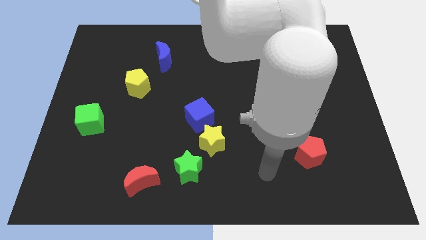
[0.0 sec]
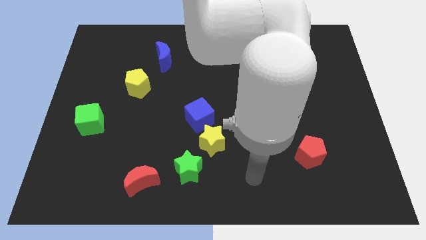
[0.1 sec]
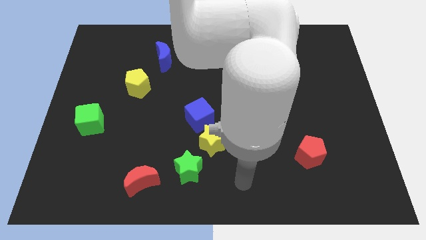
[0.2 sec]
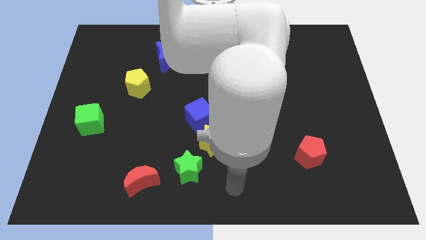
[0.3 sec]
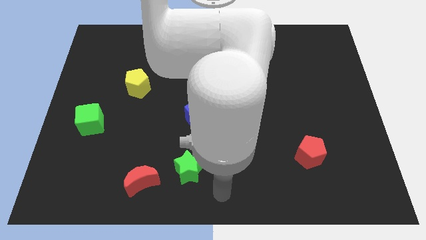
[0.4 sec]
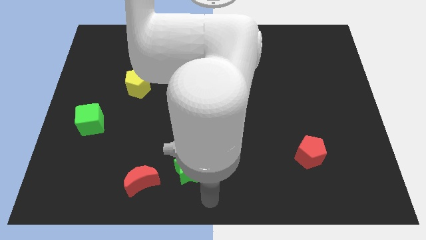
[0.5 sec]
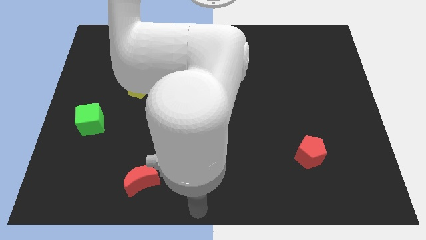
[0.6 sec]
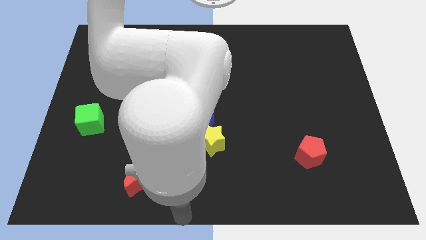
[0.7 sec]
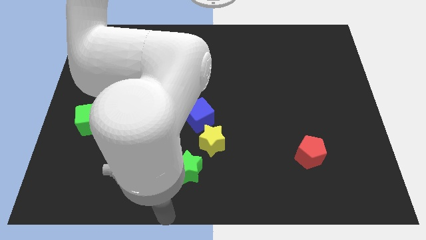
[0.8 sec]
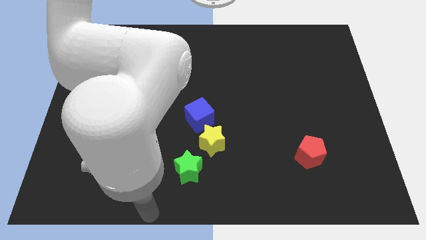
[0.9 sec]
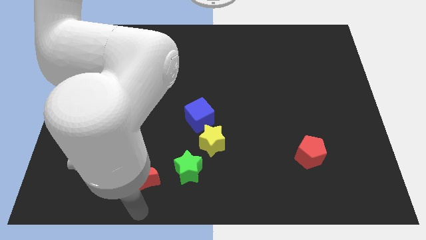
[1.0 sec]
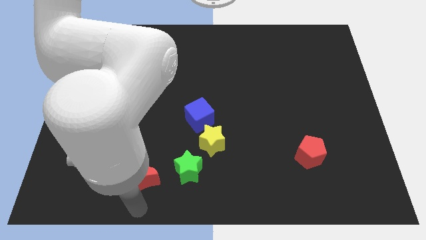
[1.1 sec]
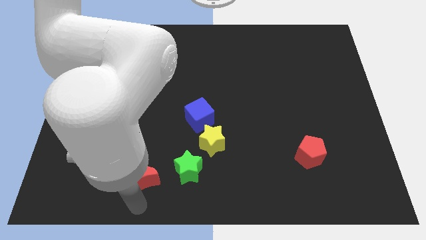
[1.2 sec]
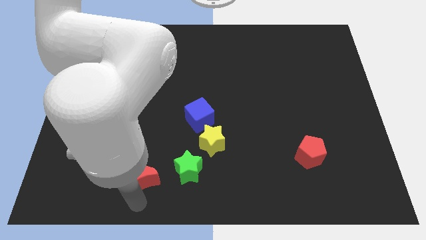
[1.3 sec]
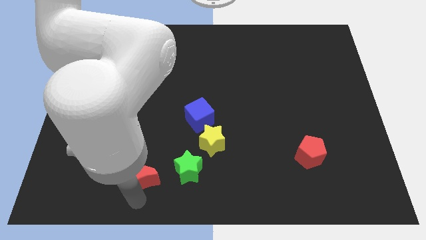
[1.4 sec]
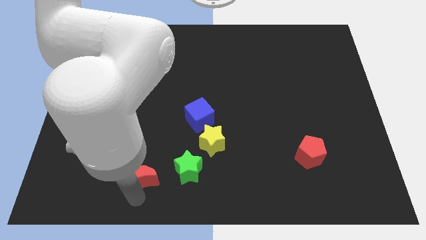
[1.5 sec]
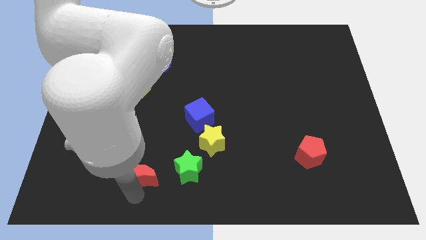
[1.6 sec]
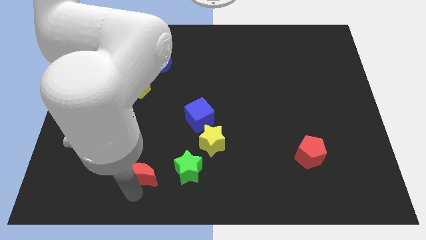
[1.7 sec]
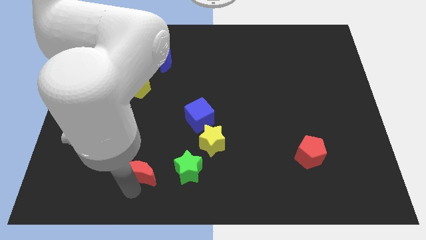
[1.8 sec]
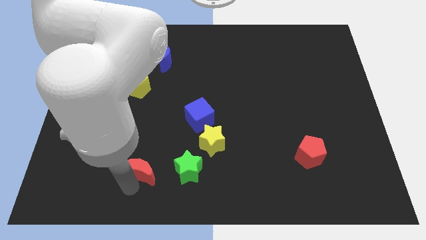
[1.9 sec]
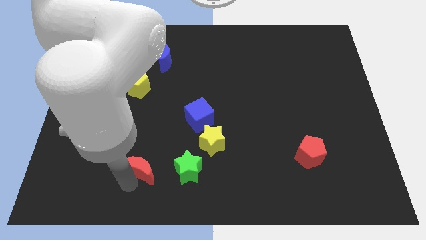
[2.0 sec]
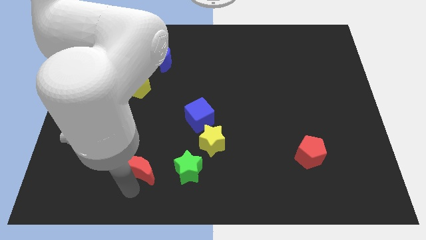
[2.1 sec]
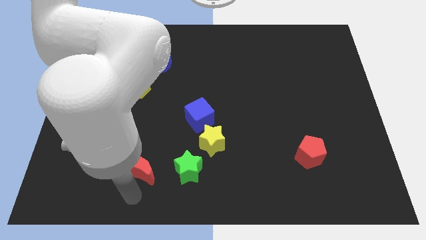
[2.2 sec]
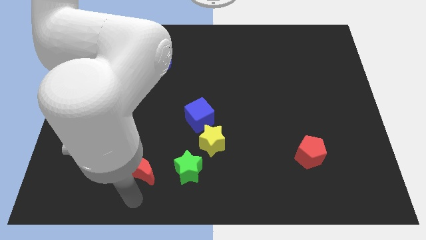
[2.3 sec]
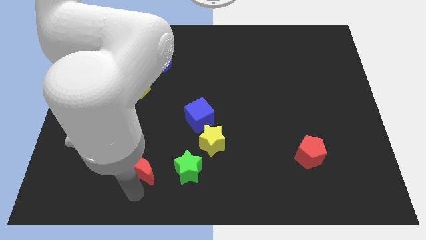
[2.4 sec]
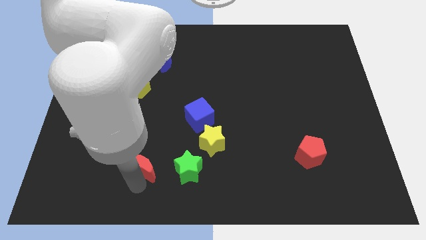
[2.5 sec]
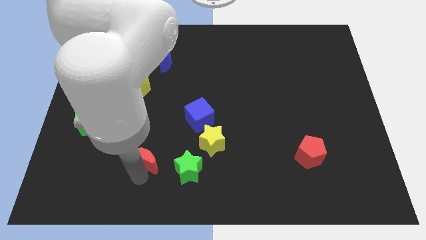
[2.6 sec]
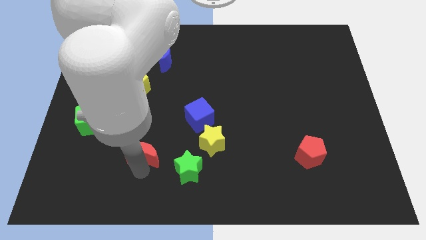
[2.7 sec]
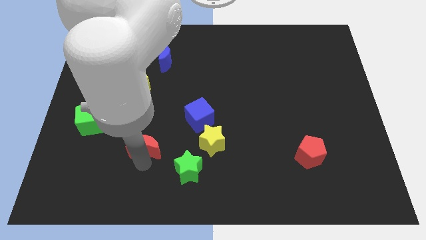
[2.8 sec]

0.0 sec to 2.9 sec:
slide the red moon up a bit

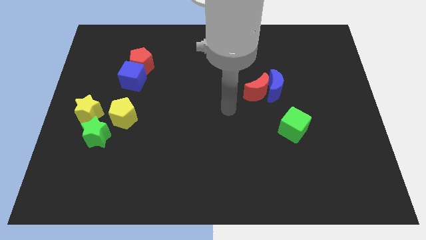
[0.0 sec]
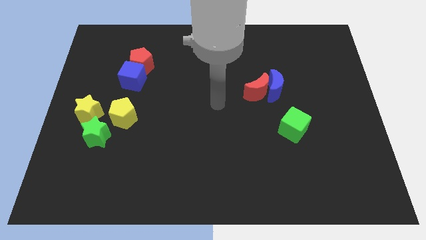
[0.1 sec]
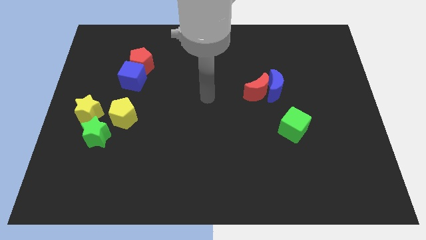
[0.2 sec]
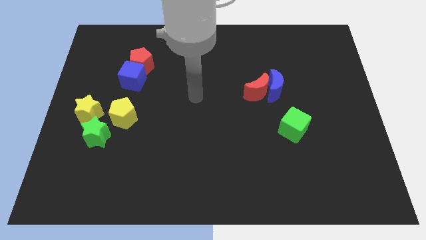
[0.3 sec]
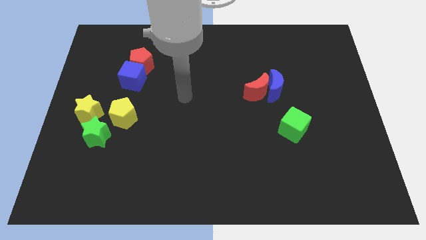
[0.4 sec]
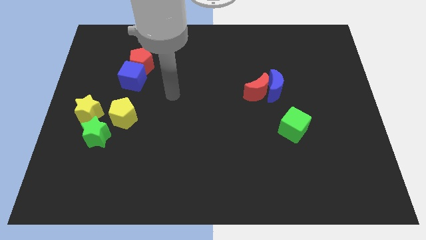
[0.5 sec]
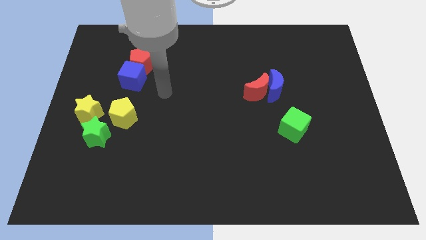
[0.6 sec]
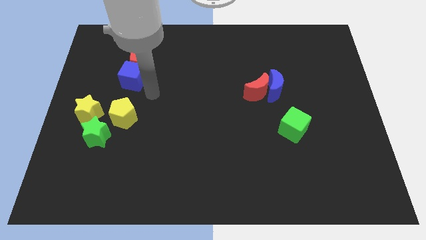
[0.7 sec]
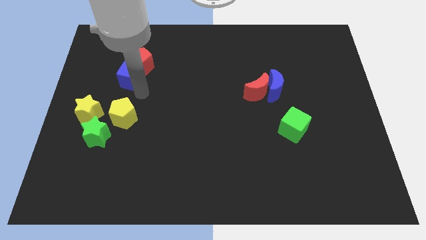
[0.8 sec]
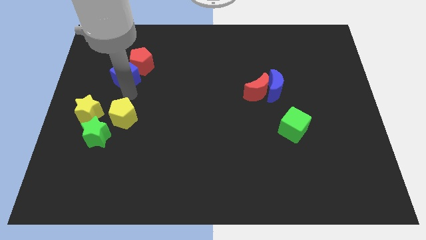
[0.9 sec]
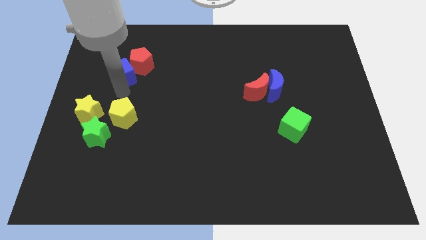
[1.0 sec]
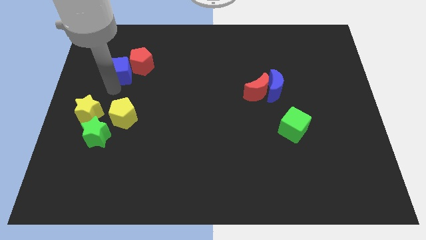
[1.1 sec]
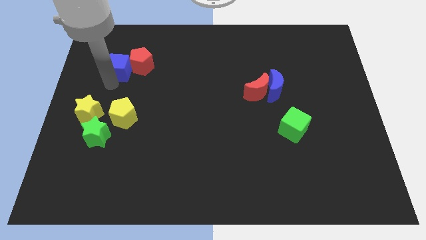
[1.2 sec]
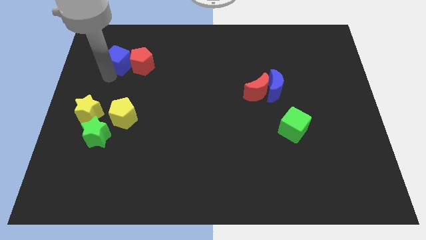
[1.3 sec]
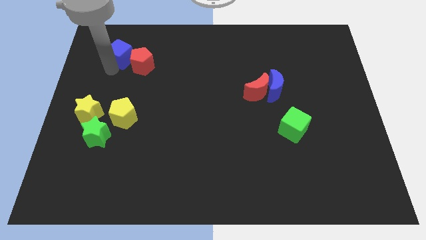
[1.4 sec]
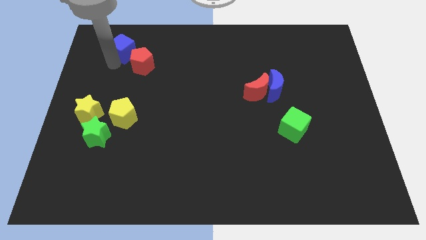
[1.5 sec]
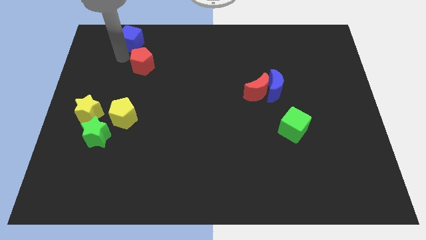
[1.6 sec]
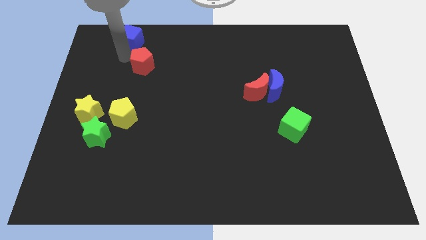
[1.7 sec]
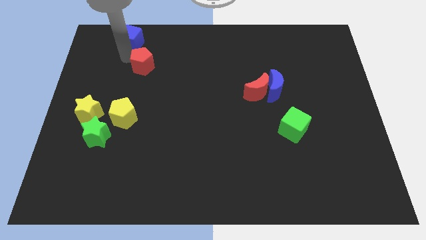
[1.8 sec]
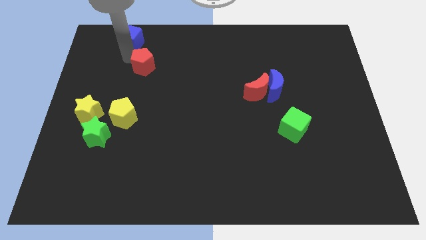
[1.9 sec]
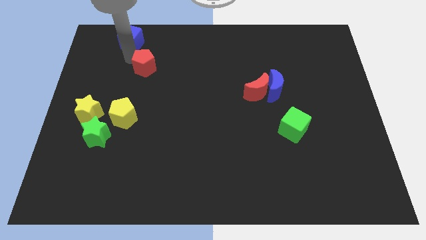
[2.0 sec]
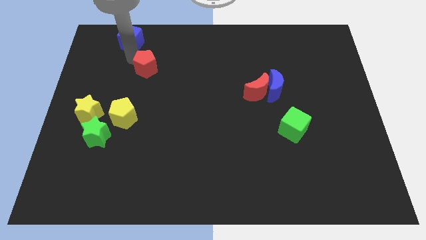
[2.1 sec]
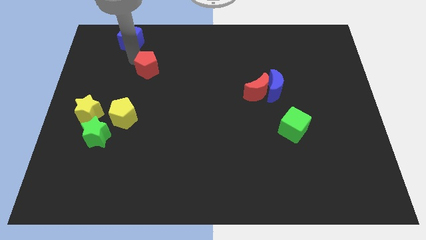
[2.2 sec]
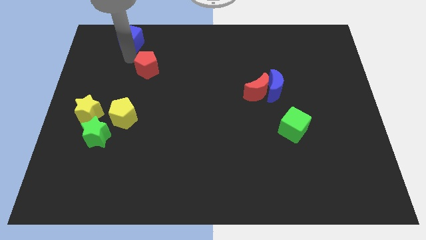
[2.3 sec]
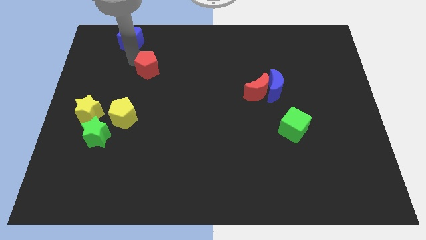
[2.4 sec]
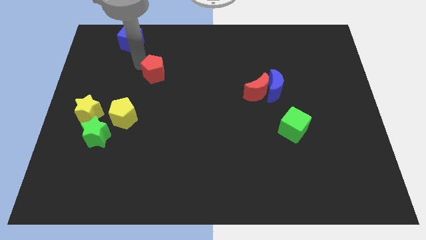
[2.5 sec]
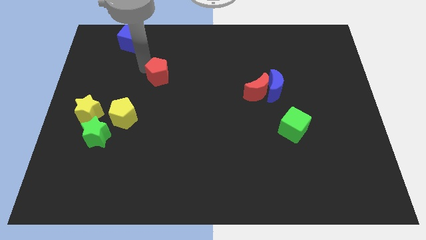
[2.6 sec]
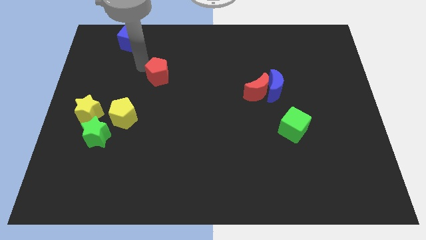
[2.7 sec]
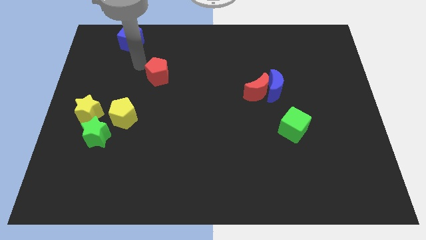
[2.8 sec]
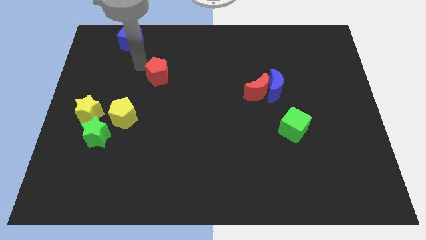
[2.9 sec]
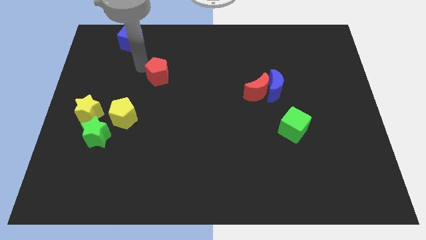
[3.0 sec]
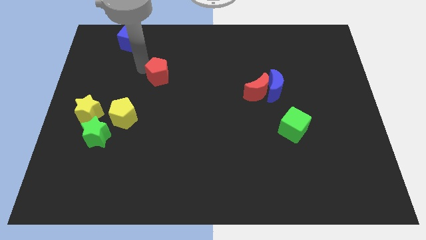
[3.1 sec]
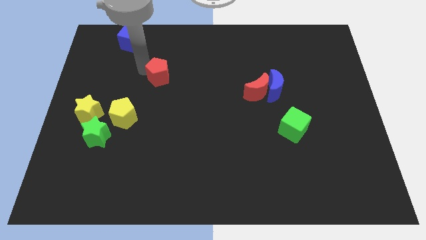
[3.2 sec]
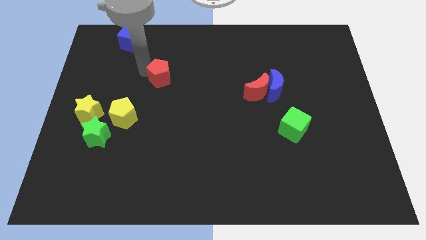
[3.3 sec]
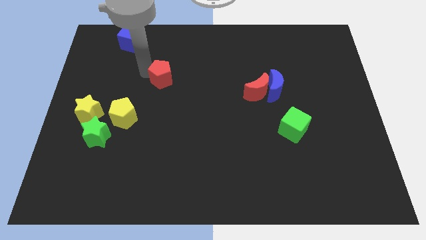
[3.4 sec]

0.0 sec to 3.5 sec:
slightly push the red pentagon down and right diagonally

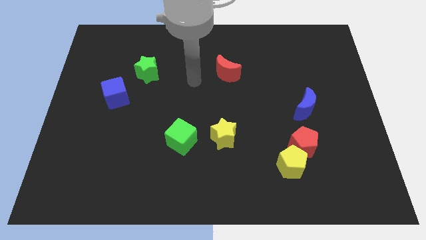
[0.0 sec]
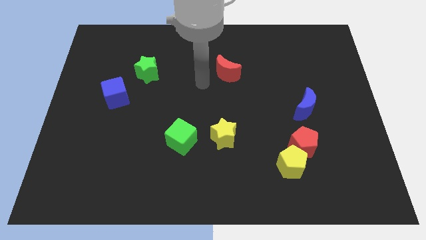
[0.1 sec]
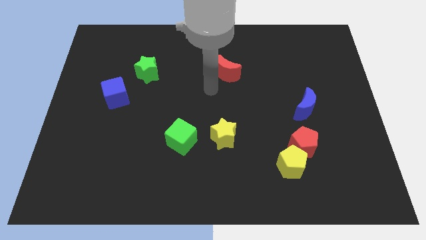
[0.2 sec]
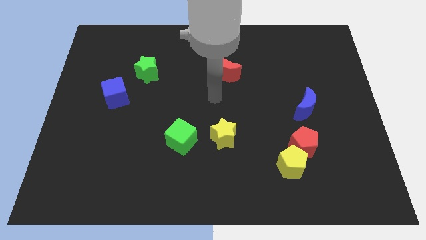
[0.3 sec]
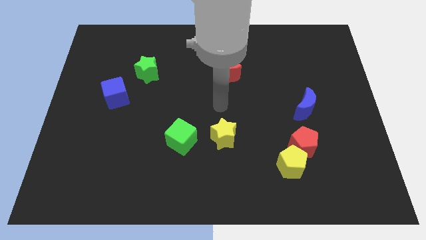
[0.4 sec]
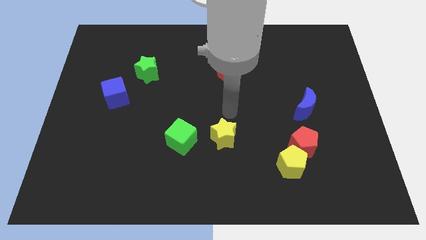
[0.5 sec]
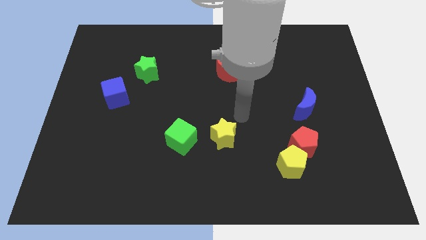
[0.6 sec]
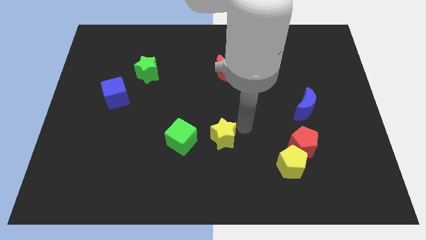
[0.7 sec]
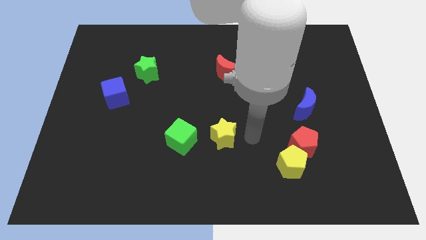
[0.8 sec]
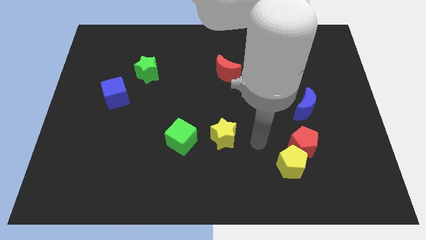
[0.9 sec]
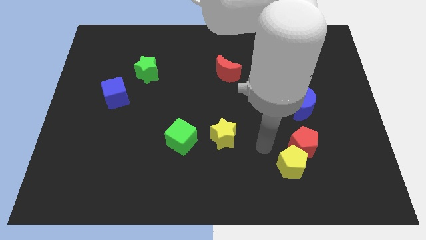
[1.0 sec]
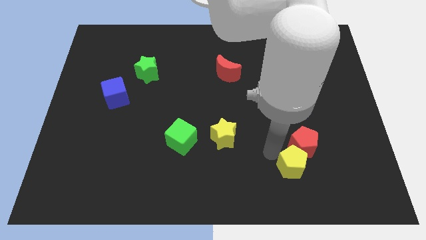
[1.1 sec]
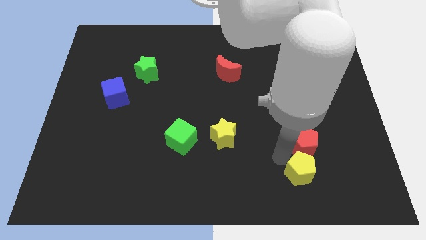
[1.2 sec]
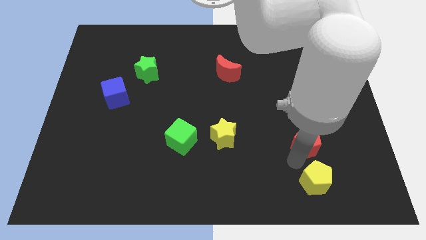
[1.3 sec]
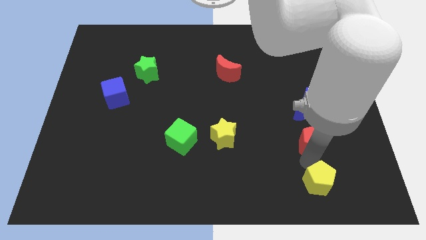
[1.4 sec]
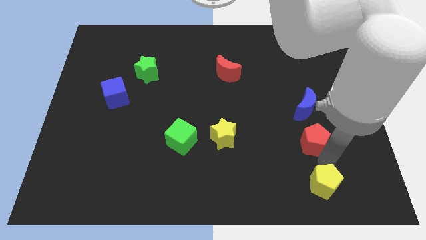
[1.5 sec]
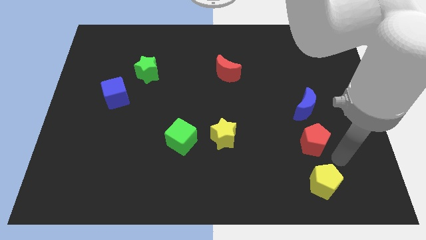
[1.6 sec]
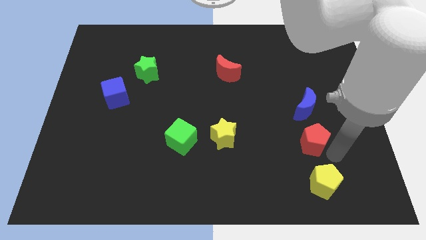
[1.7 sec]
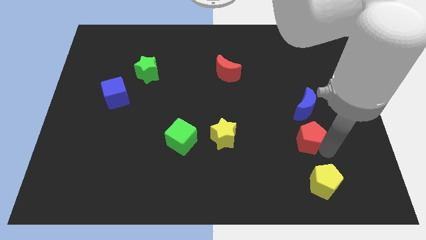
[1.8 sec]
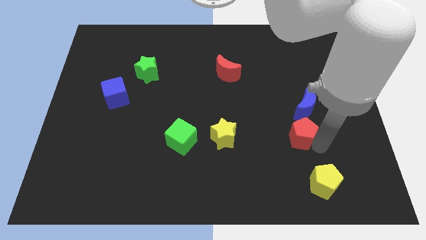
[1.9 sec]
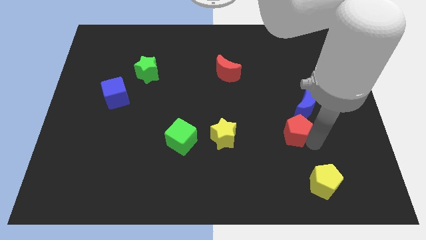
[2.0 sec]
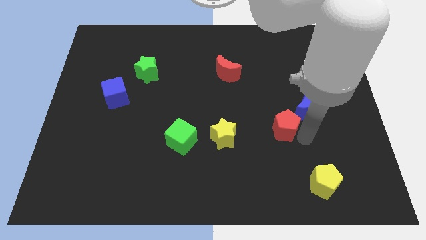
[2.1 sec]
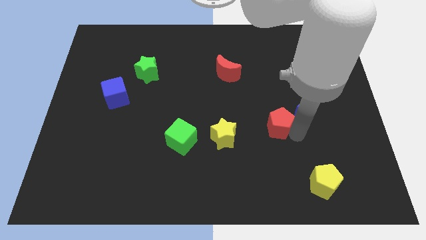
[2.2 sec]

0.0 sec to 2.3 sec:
push the red pentagon upwards and then to the left a little
